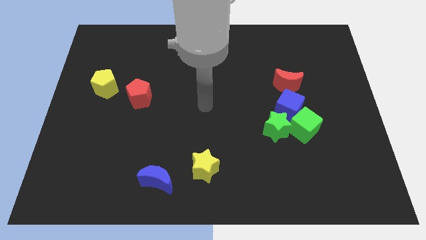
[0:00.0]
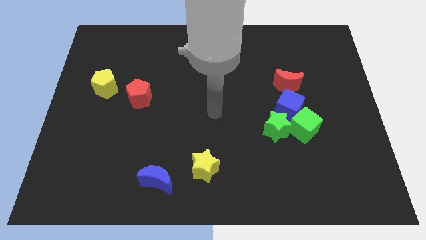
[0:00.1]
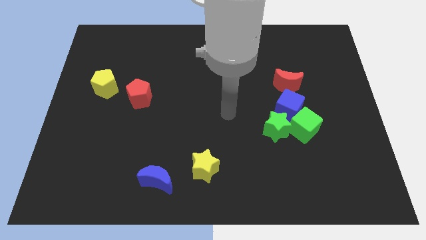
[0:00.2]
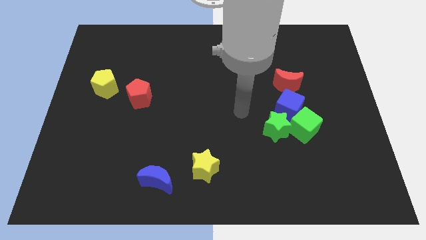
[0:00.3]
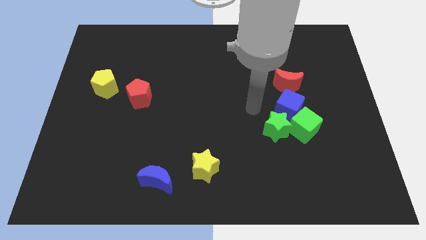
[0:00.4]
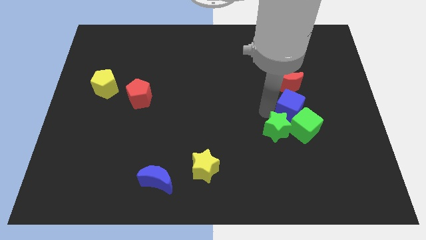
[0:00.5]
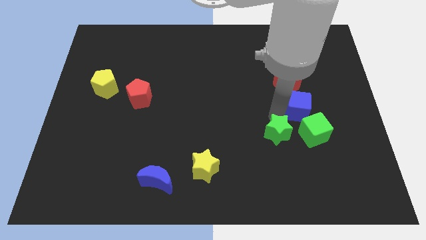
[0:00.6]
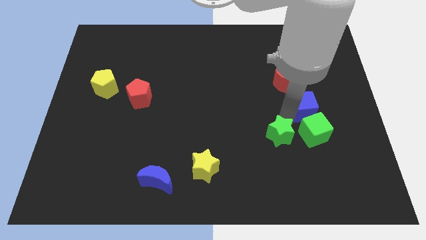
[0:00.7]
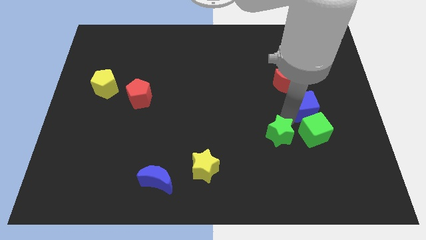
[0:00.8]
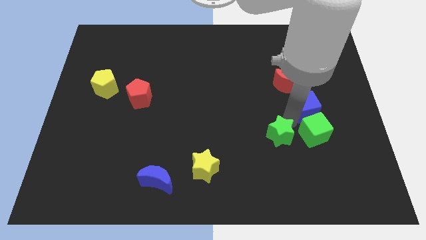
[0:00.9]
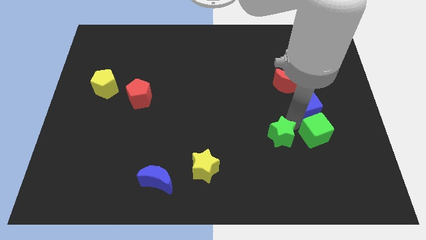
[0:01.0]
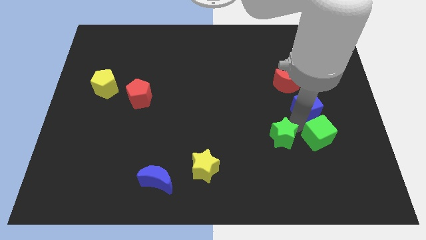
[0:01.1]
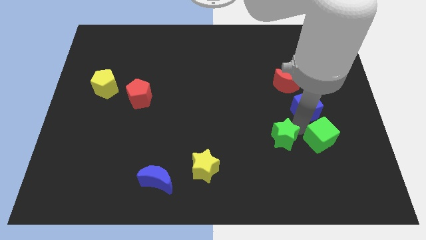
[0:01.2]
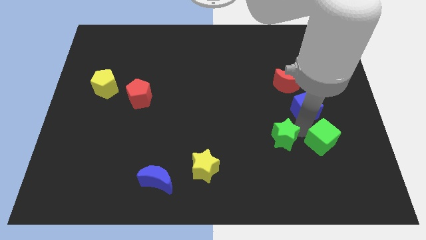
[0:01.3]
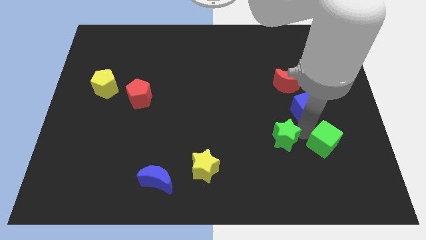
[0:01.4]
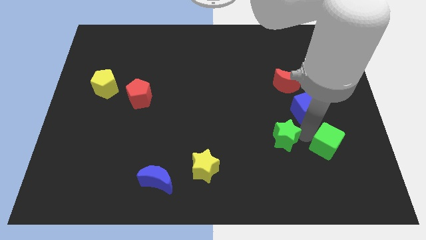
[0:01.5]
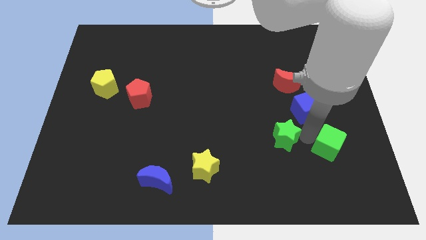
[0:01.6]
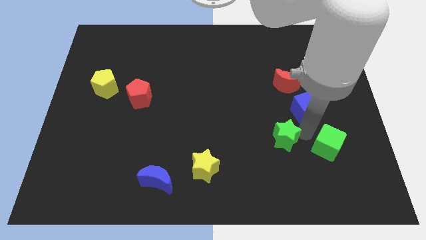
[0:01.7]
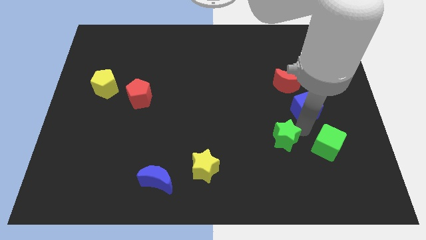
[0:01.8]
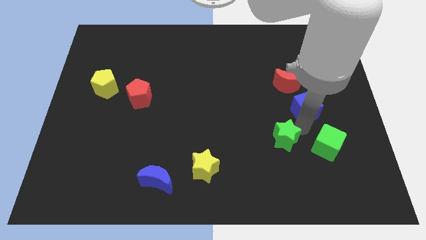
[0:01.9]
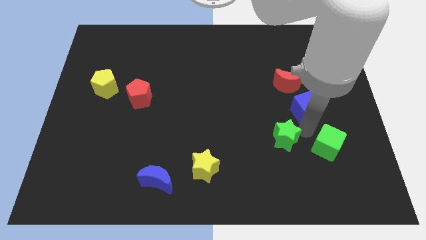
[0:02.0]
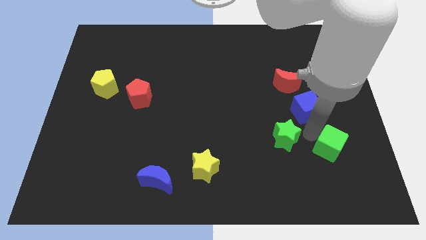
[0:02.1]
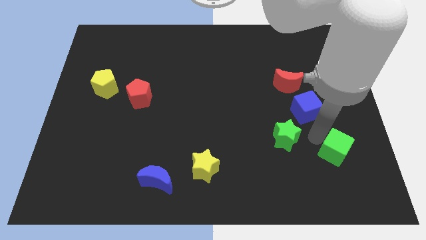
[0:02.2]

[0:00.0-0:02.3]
separate the green cube from the blue cube and green star

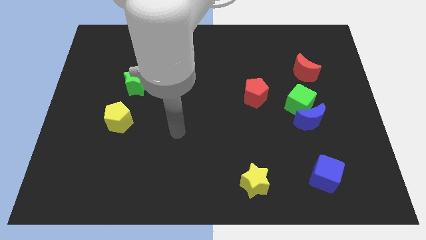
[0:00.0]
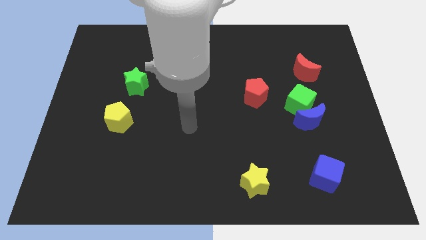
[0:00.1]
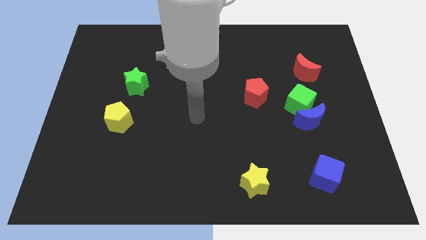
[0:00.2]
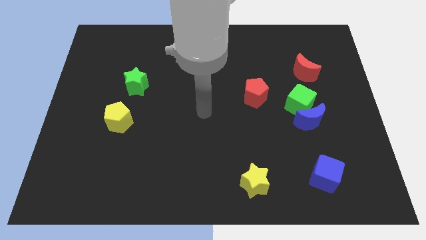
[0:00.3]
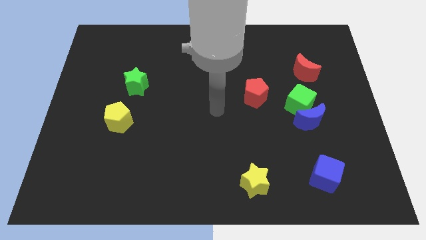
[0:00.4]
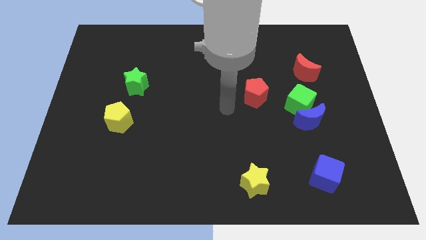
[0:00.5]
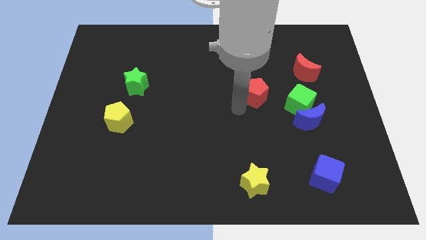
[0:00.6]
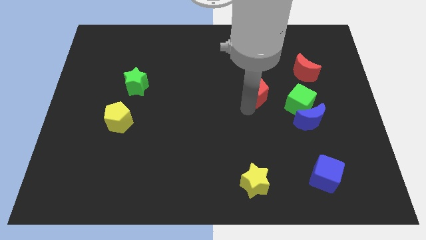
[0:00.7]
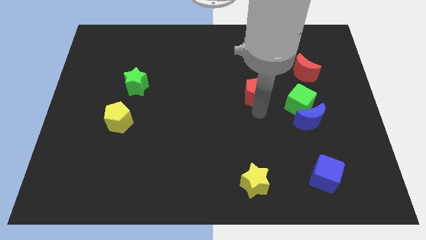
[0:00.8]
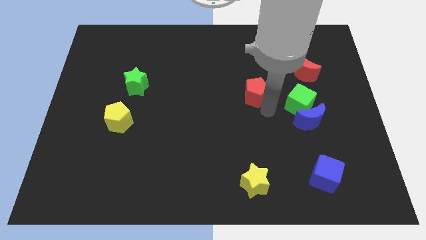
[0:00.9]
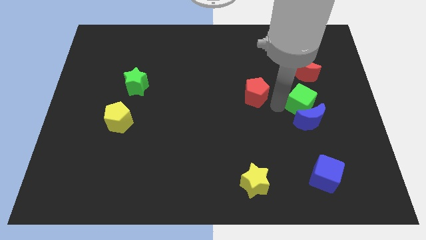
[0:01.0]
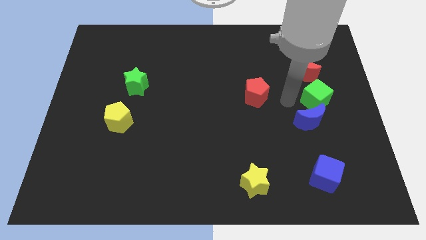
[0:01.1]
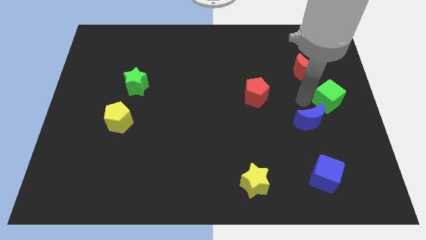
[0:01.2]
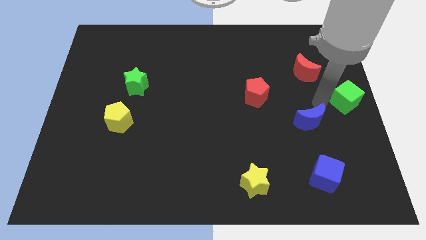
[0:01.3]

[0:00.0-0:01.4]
separate the blue moon from the green cube

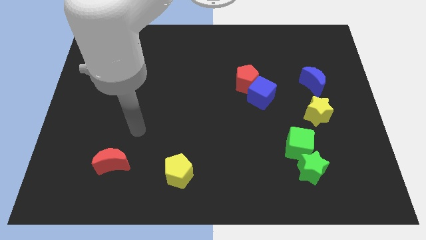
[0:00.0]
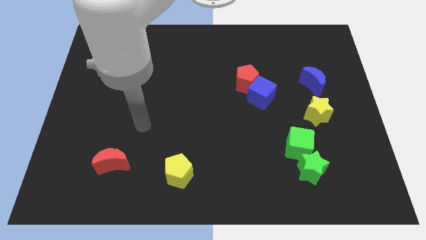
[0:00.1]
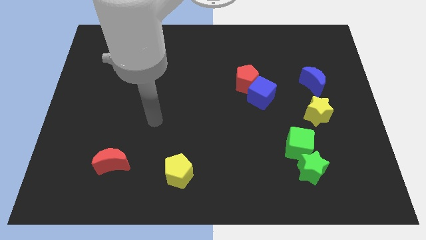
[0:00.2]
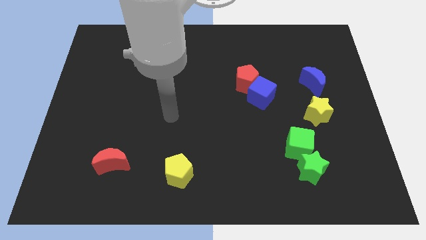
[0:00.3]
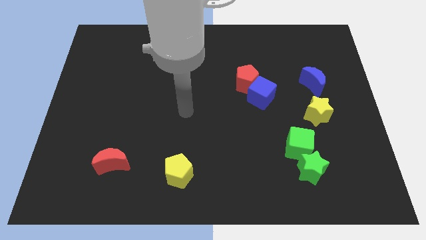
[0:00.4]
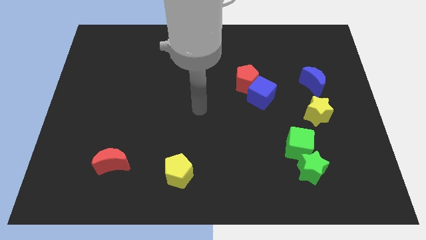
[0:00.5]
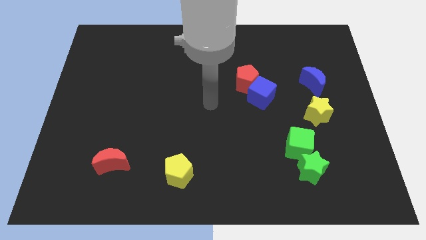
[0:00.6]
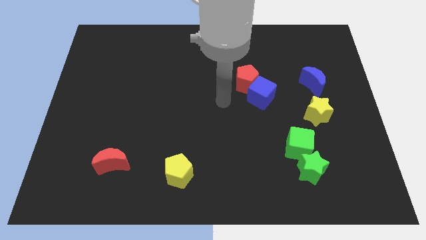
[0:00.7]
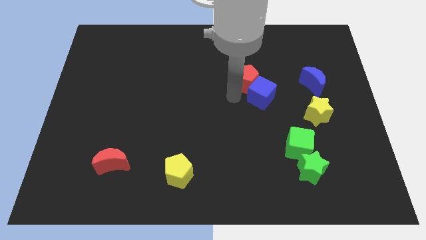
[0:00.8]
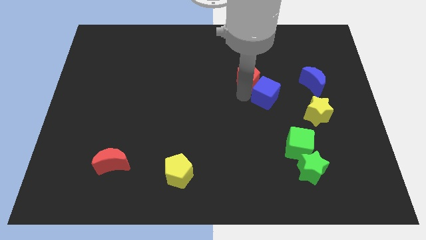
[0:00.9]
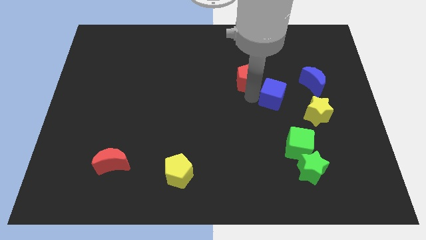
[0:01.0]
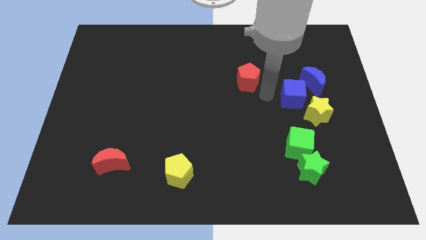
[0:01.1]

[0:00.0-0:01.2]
move the red pentagon away from the blue cube

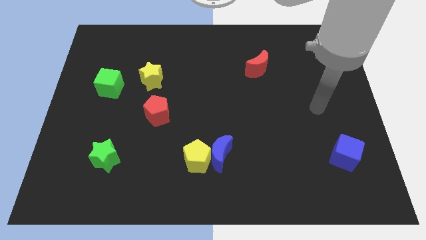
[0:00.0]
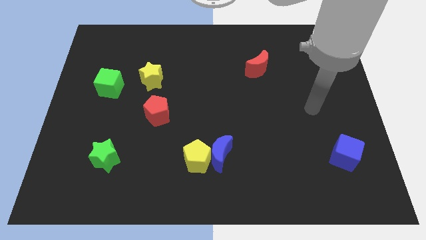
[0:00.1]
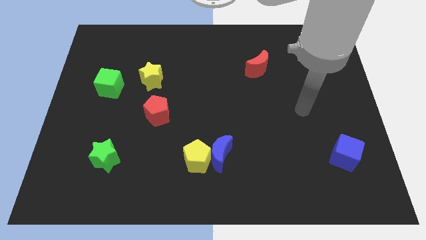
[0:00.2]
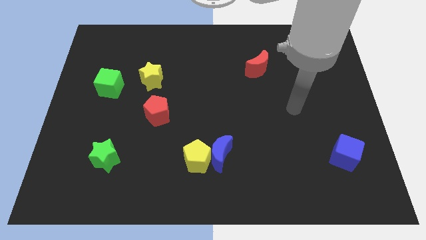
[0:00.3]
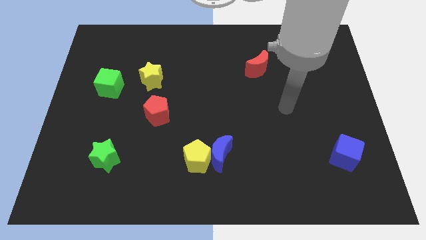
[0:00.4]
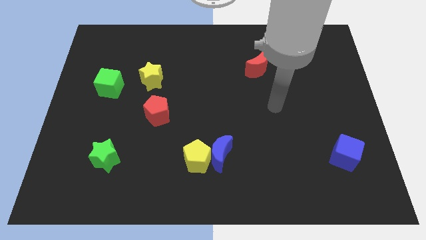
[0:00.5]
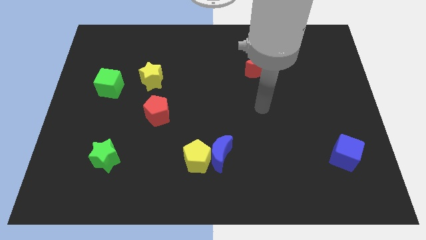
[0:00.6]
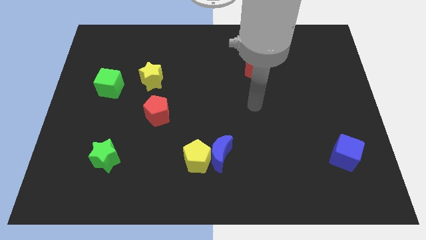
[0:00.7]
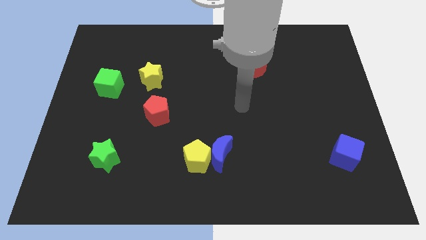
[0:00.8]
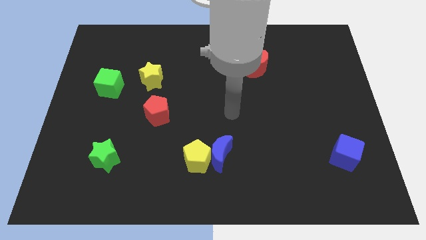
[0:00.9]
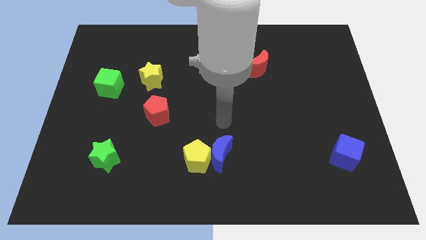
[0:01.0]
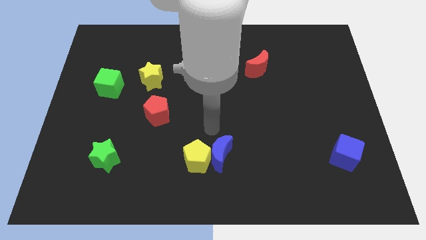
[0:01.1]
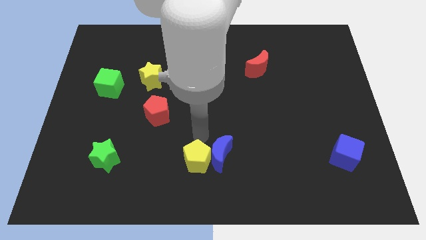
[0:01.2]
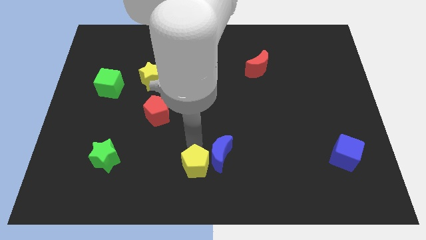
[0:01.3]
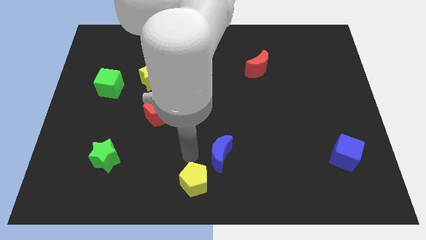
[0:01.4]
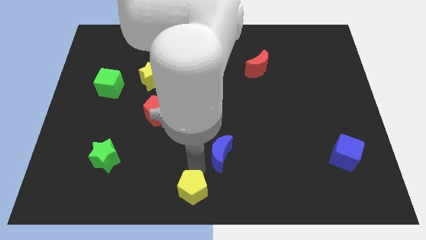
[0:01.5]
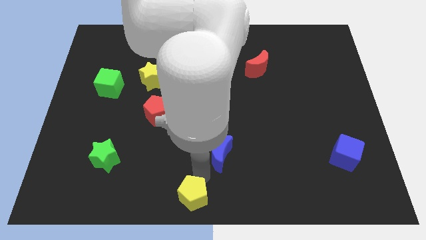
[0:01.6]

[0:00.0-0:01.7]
separate the blue moon from the yellow pentagon

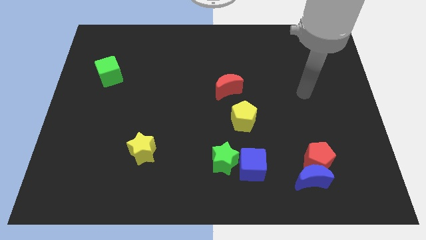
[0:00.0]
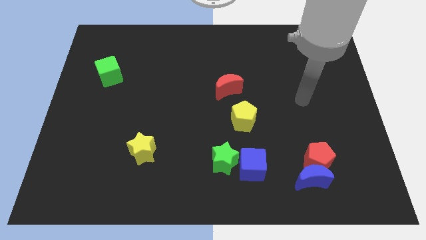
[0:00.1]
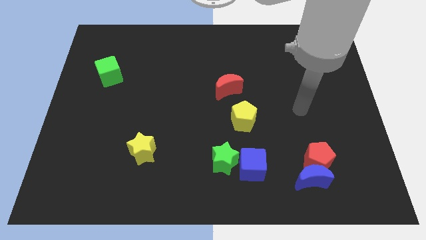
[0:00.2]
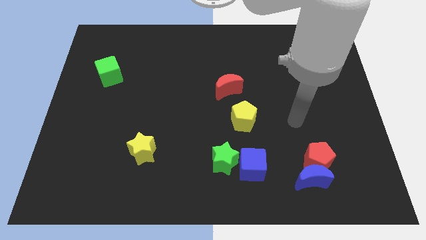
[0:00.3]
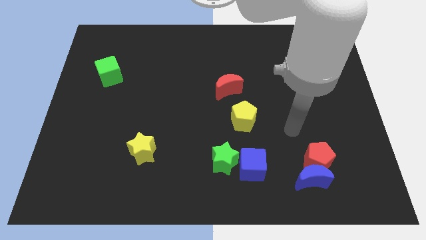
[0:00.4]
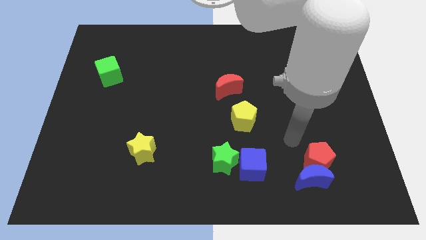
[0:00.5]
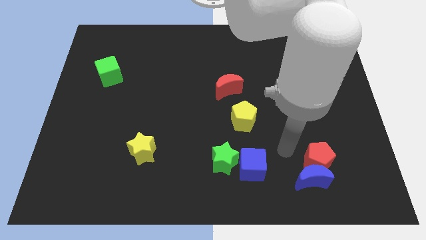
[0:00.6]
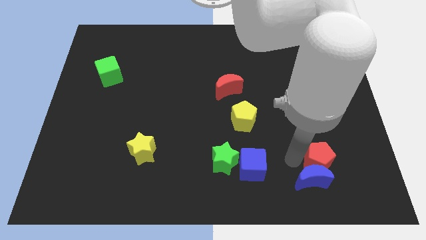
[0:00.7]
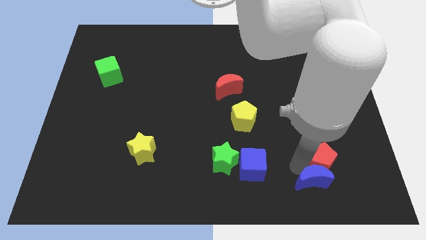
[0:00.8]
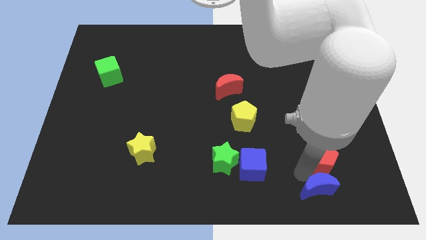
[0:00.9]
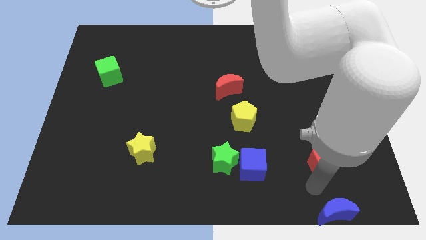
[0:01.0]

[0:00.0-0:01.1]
move the red pentagon away from the blue moon

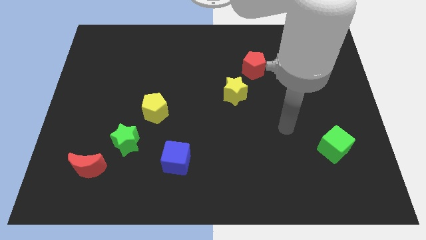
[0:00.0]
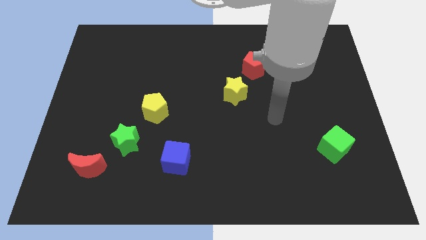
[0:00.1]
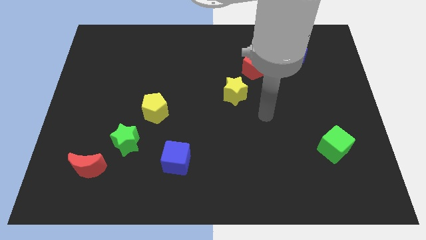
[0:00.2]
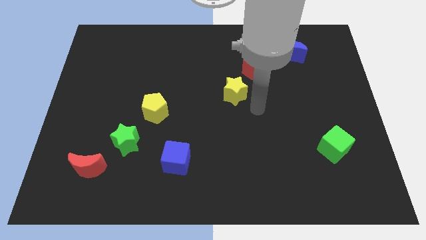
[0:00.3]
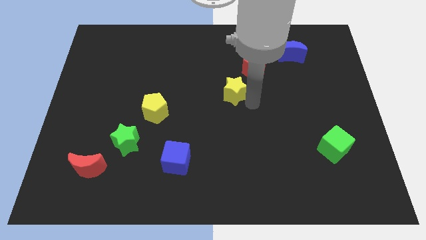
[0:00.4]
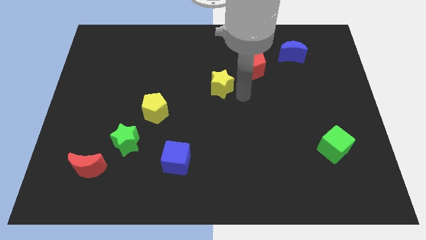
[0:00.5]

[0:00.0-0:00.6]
move the red pentagon away from the yellow star

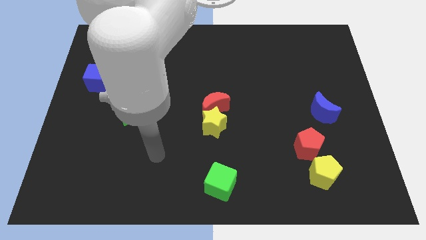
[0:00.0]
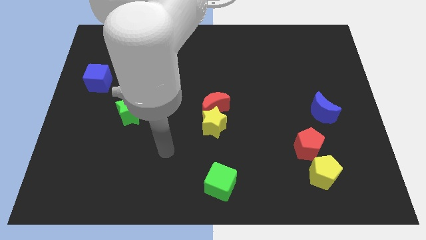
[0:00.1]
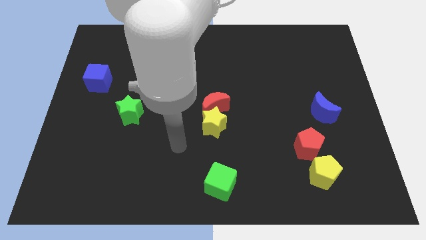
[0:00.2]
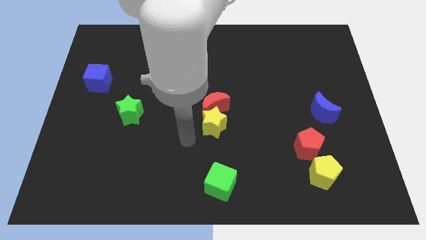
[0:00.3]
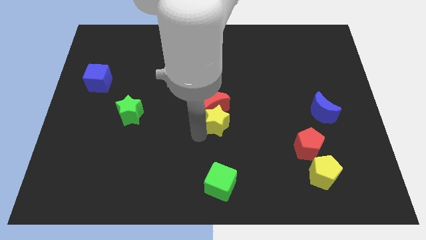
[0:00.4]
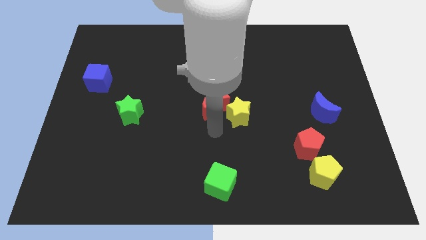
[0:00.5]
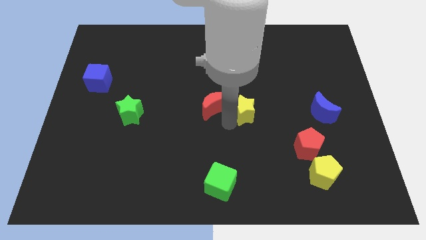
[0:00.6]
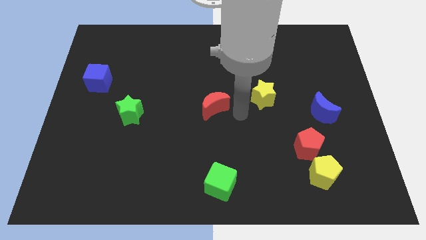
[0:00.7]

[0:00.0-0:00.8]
move the red moon away from the yellow star

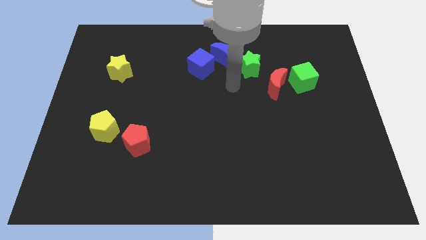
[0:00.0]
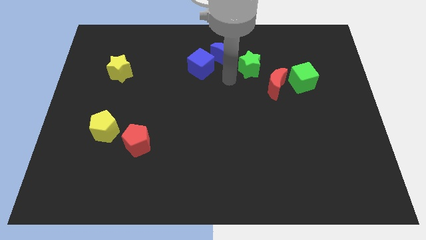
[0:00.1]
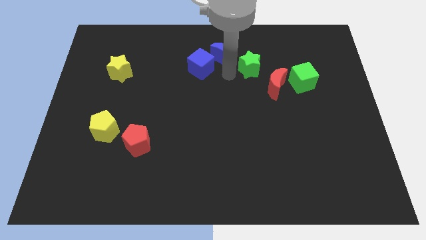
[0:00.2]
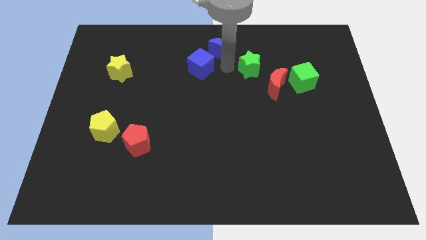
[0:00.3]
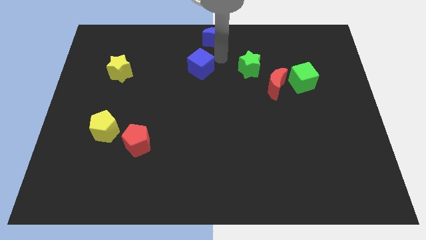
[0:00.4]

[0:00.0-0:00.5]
move the blue cube away from the blue moon
